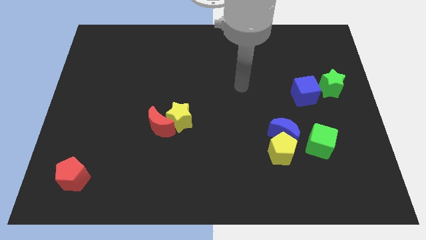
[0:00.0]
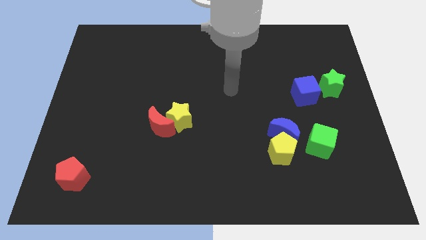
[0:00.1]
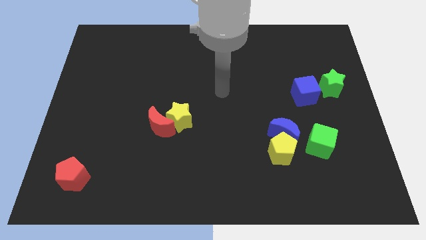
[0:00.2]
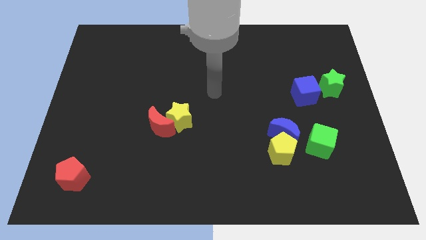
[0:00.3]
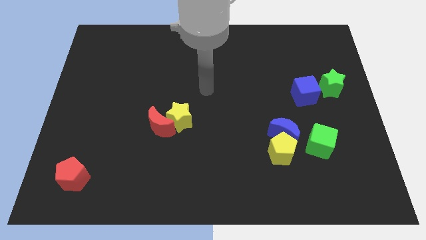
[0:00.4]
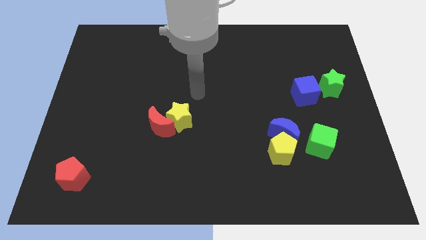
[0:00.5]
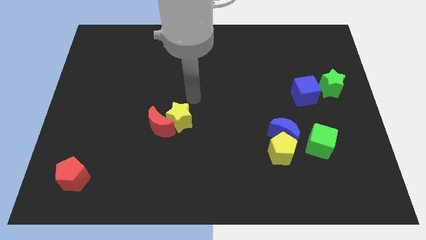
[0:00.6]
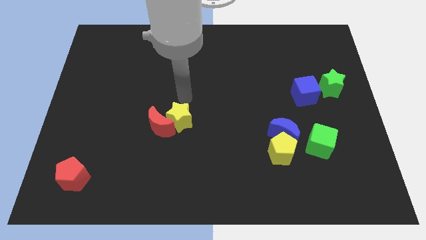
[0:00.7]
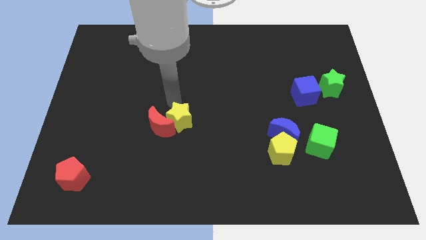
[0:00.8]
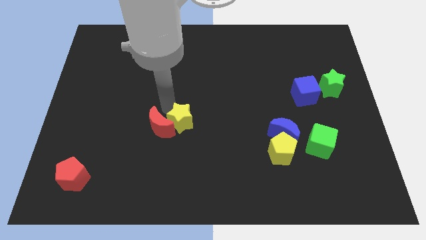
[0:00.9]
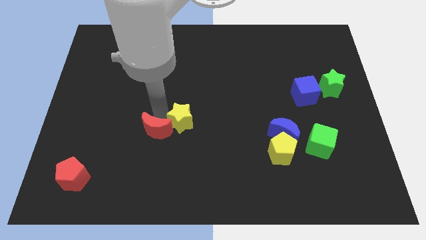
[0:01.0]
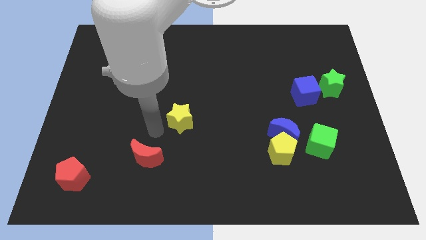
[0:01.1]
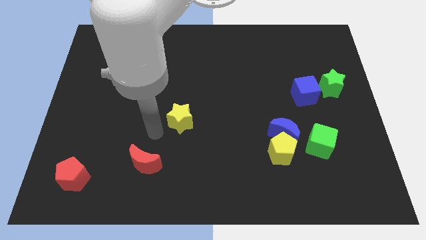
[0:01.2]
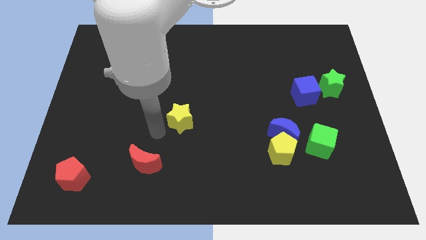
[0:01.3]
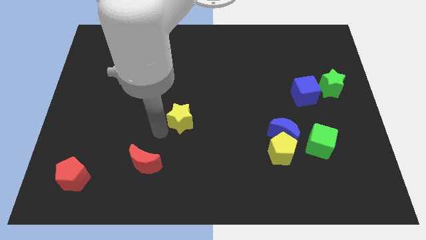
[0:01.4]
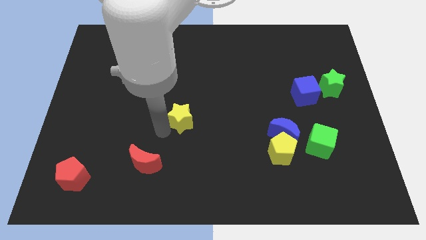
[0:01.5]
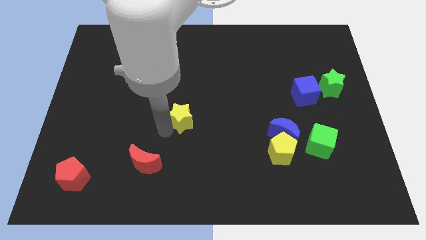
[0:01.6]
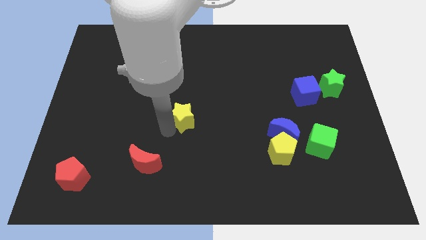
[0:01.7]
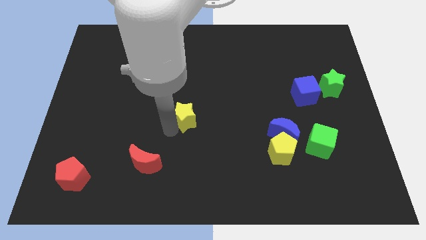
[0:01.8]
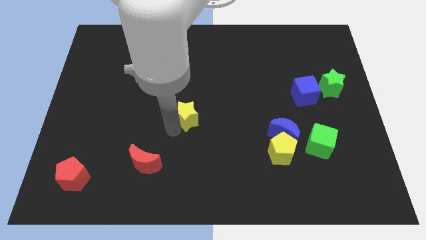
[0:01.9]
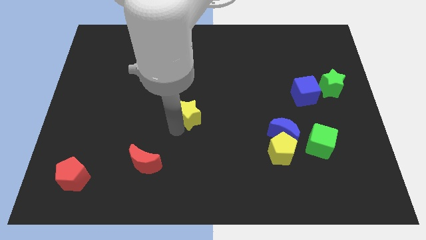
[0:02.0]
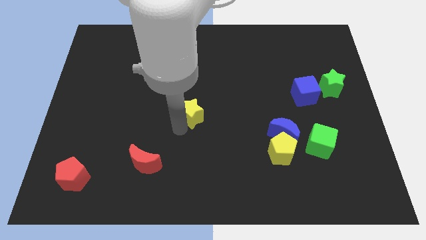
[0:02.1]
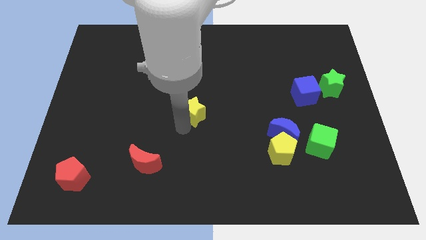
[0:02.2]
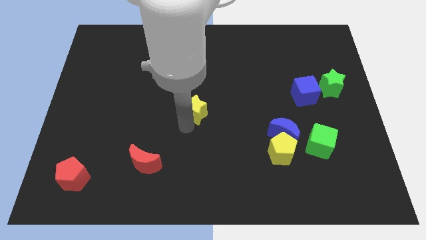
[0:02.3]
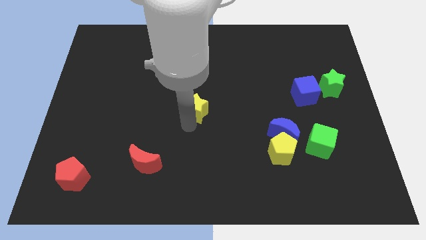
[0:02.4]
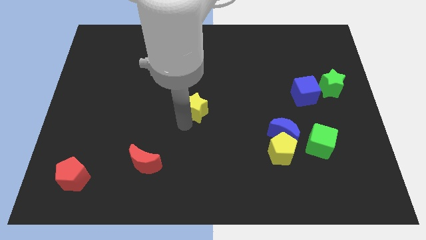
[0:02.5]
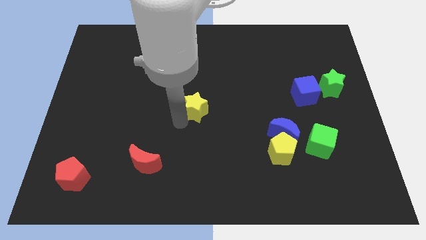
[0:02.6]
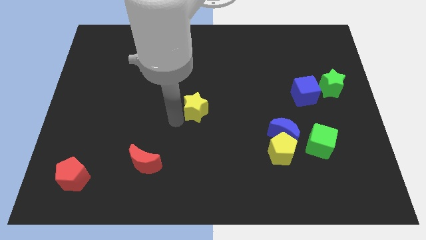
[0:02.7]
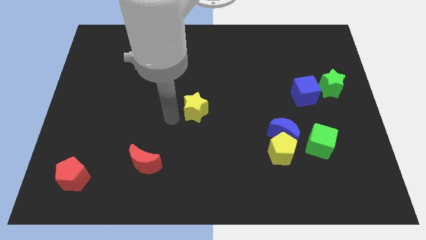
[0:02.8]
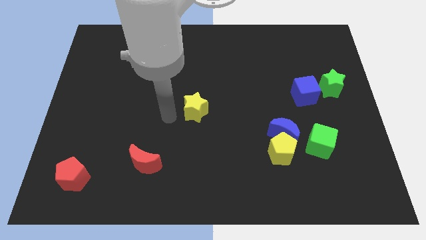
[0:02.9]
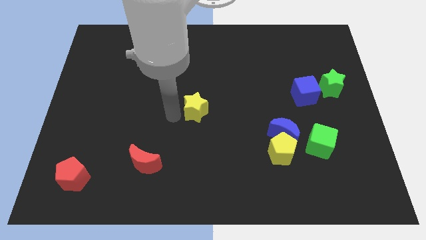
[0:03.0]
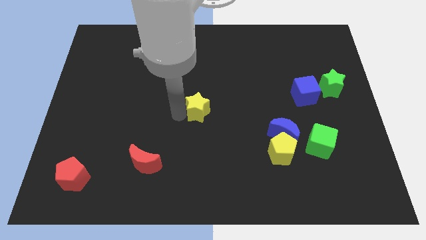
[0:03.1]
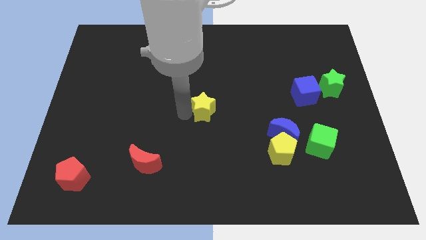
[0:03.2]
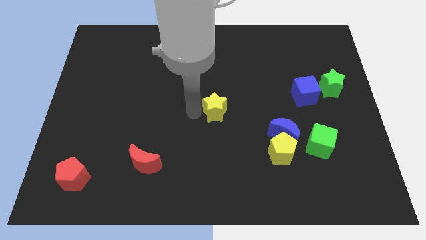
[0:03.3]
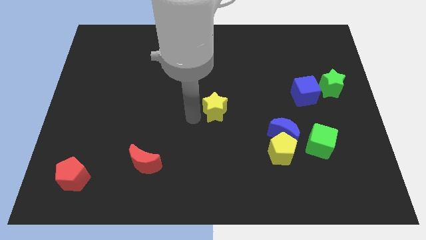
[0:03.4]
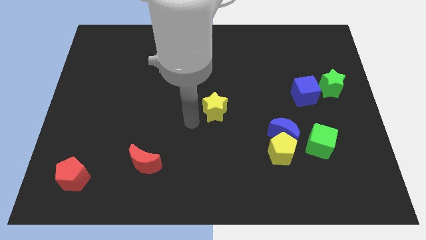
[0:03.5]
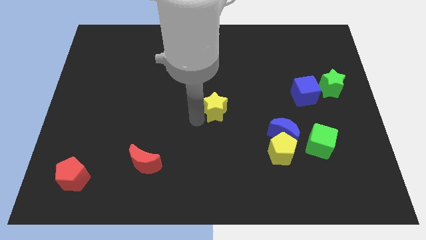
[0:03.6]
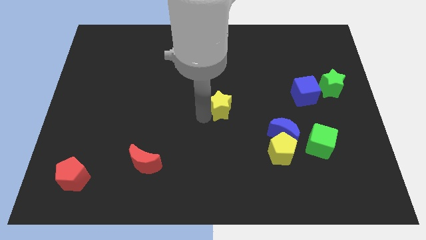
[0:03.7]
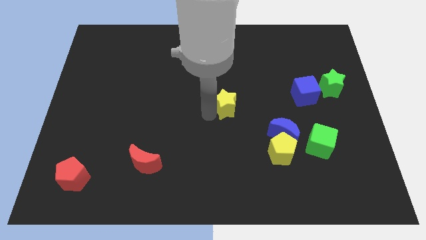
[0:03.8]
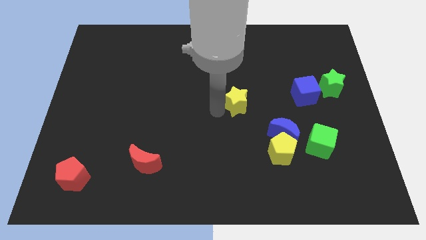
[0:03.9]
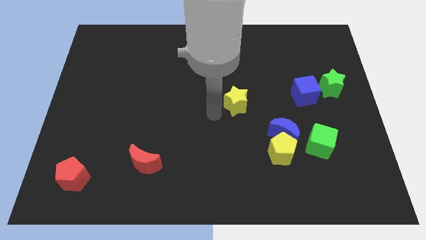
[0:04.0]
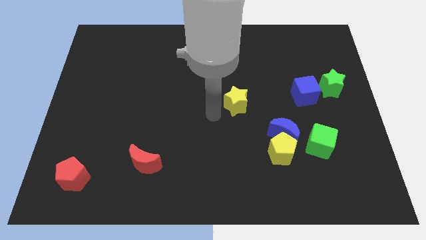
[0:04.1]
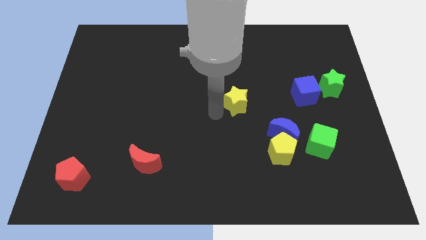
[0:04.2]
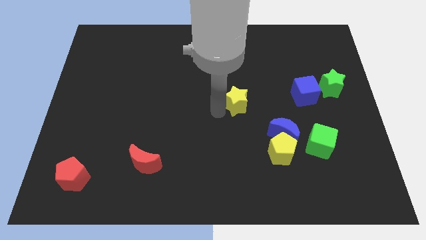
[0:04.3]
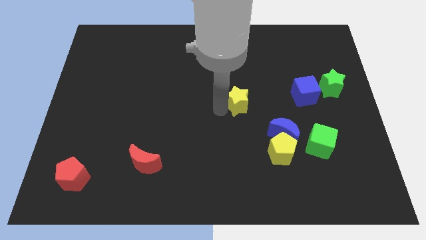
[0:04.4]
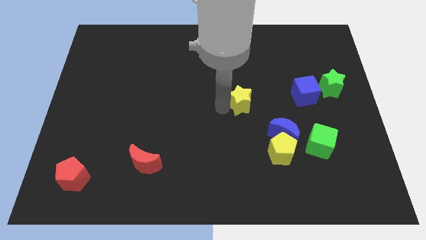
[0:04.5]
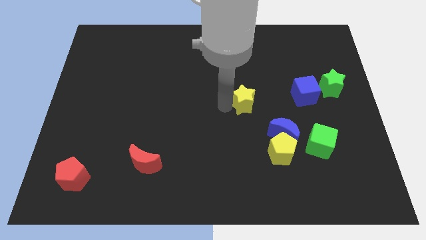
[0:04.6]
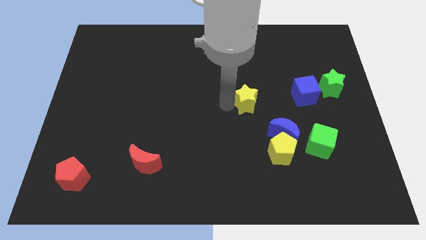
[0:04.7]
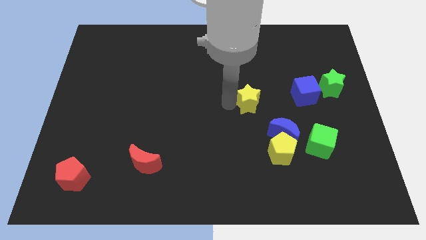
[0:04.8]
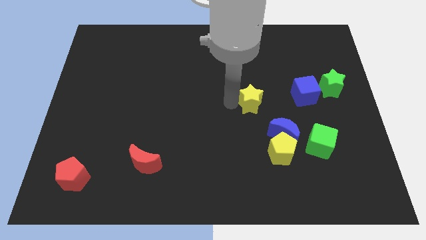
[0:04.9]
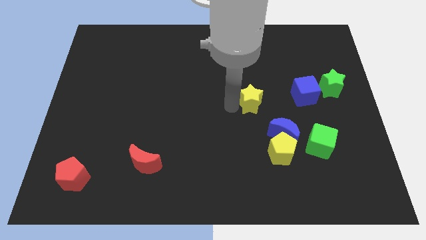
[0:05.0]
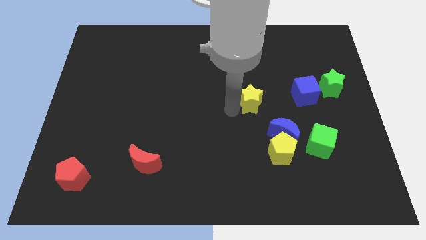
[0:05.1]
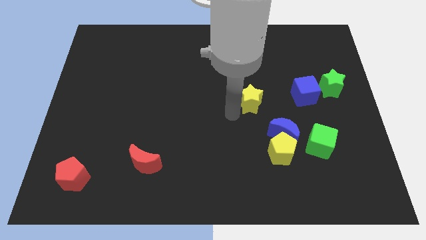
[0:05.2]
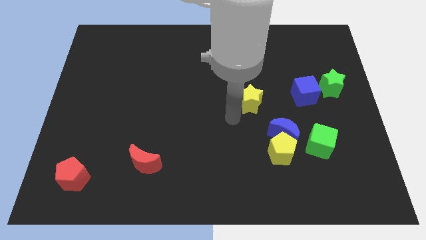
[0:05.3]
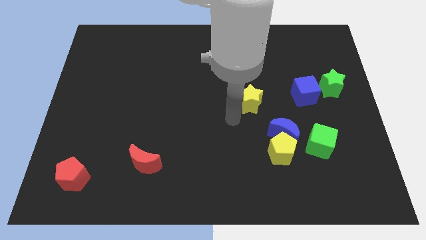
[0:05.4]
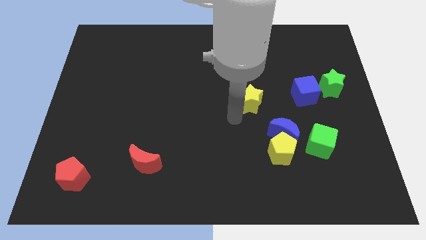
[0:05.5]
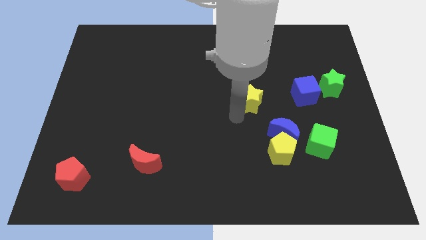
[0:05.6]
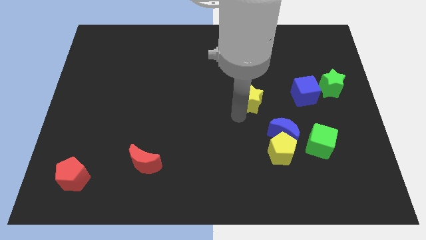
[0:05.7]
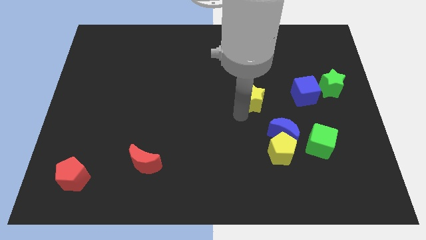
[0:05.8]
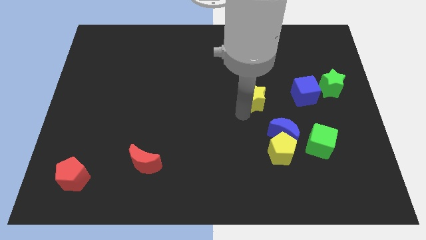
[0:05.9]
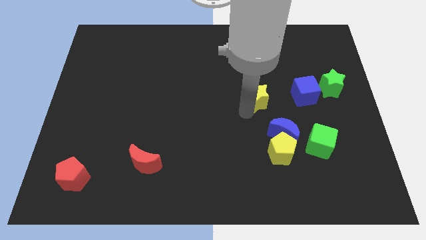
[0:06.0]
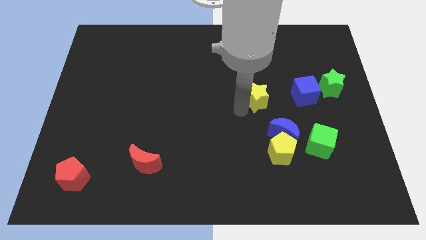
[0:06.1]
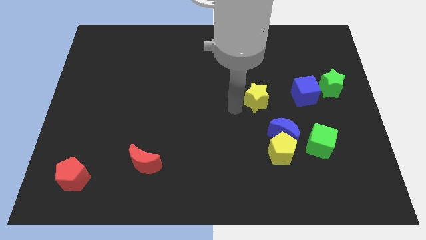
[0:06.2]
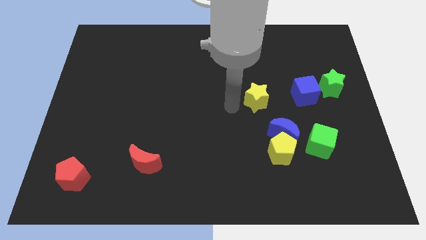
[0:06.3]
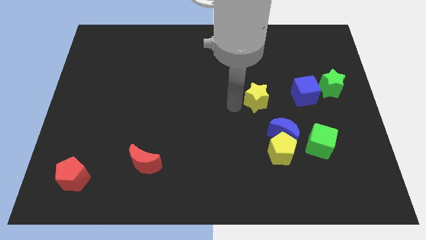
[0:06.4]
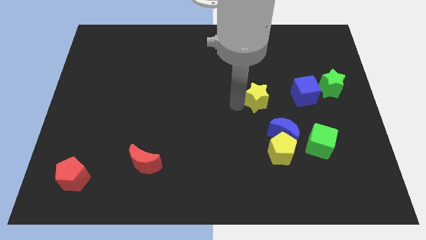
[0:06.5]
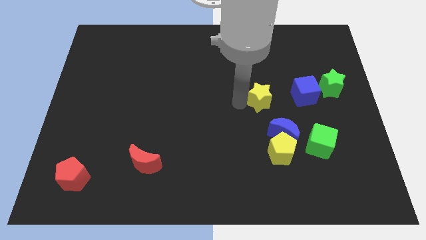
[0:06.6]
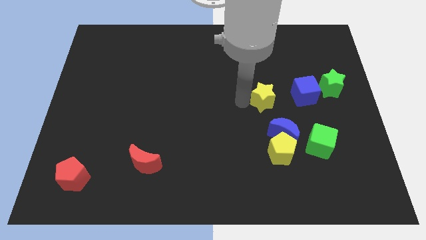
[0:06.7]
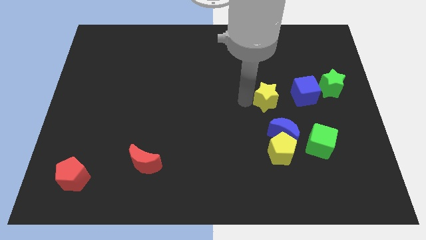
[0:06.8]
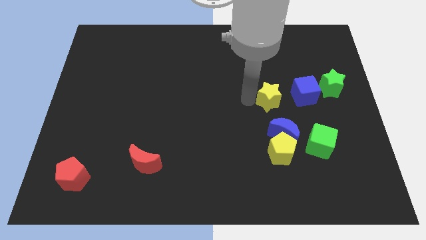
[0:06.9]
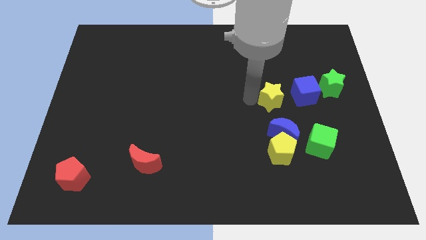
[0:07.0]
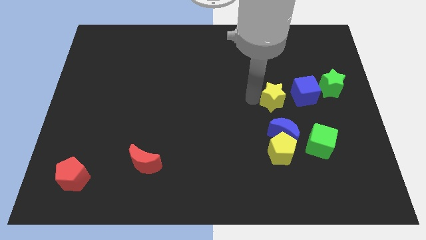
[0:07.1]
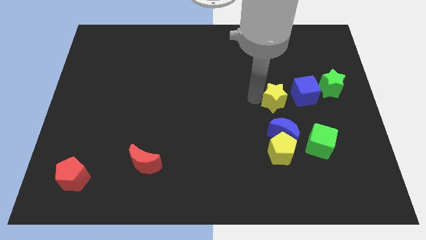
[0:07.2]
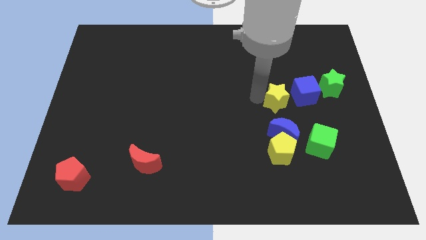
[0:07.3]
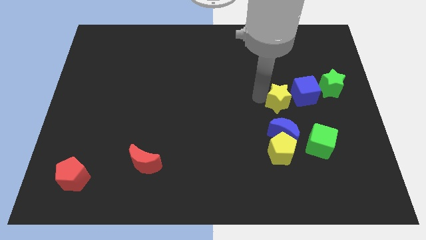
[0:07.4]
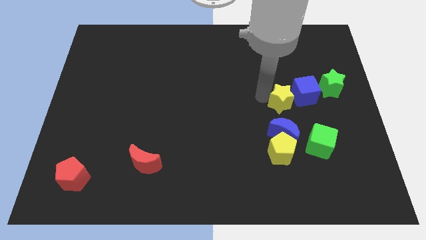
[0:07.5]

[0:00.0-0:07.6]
put the yellow star close to the blue cube
